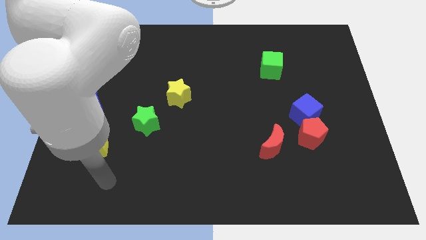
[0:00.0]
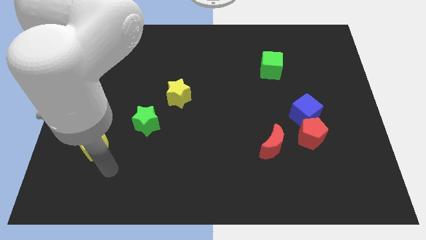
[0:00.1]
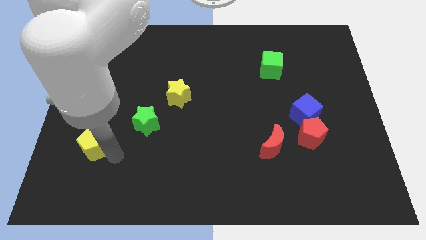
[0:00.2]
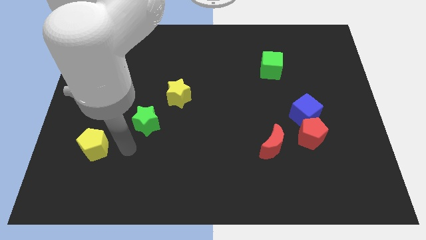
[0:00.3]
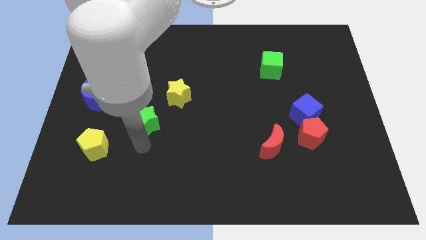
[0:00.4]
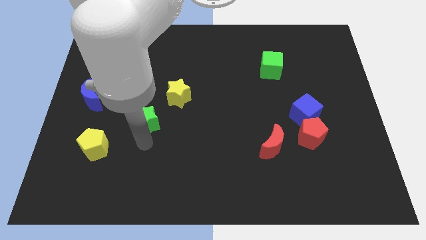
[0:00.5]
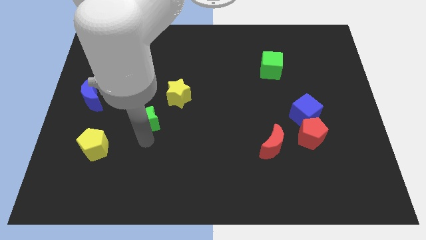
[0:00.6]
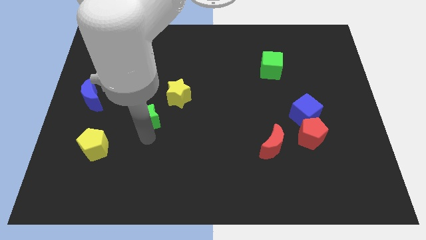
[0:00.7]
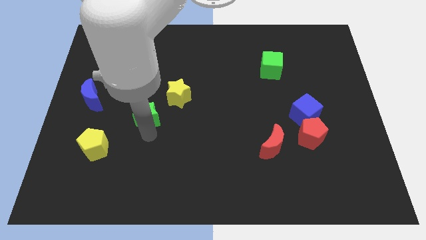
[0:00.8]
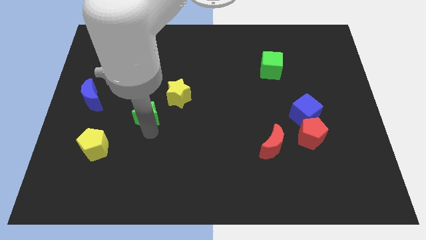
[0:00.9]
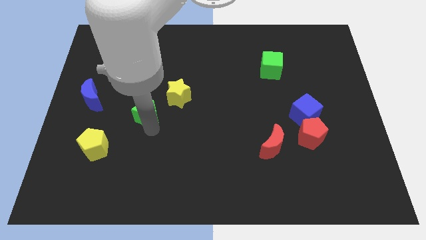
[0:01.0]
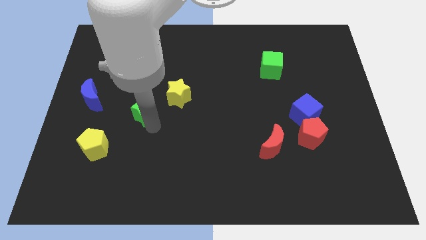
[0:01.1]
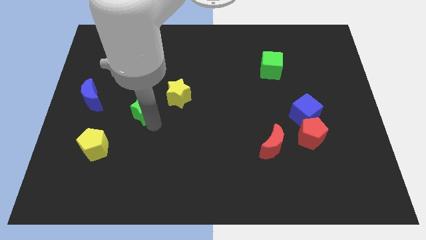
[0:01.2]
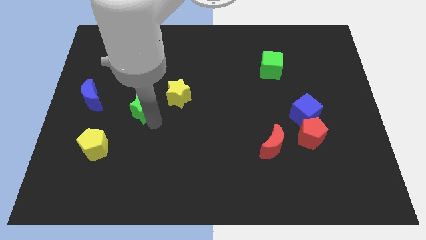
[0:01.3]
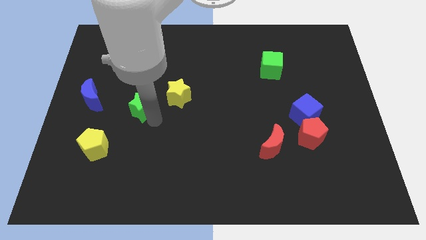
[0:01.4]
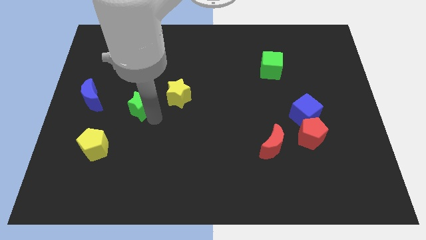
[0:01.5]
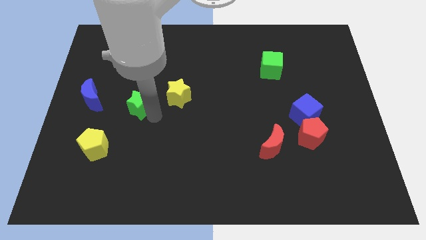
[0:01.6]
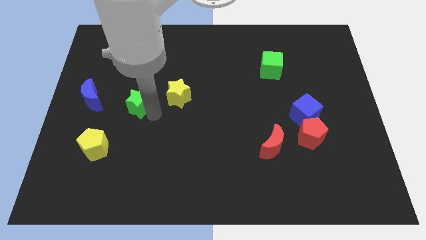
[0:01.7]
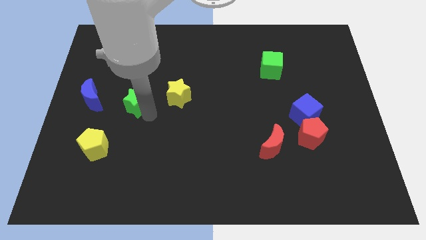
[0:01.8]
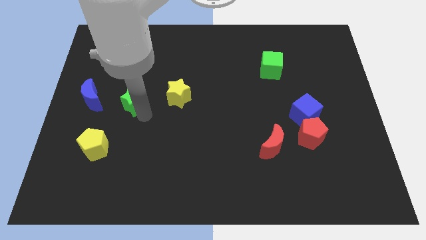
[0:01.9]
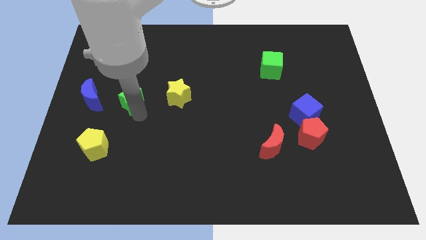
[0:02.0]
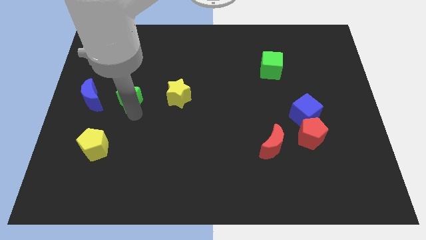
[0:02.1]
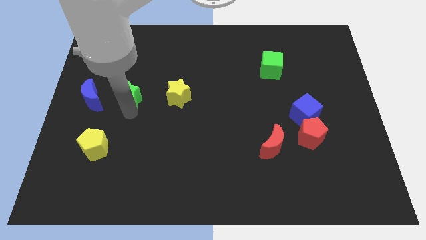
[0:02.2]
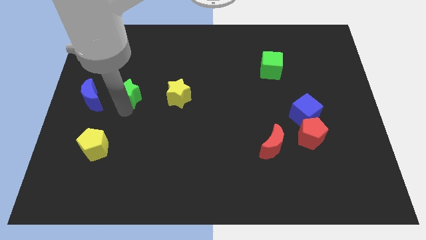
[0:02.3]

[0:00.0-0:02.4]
move the green star slightly up

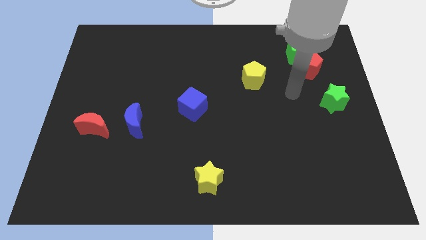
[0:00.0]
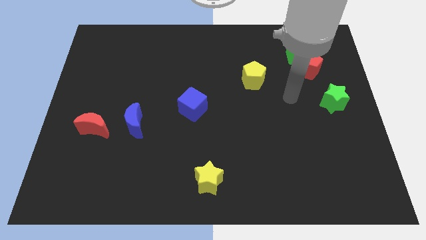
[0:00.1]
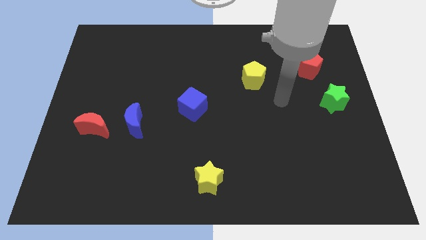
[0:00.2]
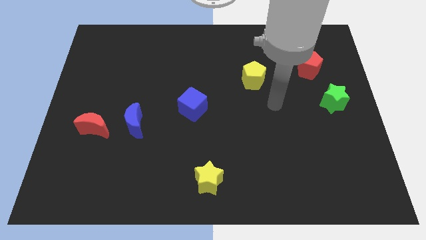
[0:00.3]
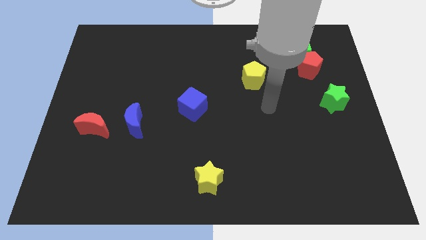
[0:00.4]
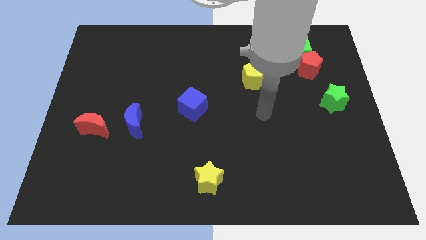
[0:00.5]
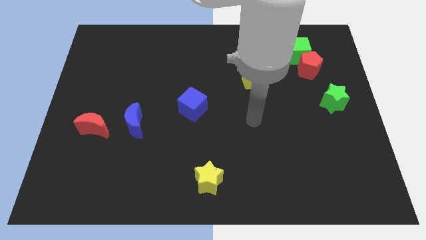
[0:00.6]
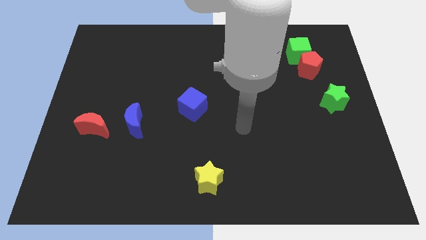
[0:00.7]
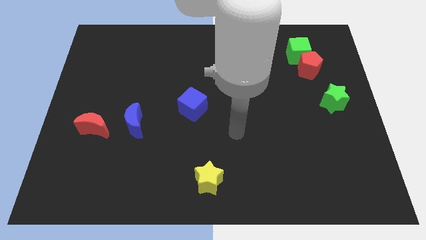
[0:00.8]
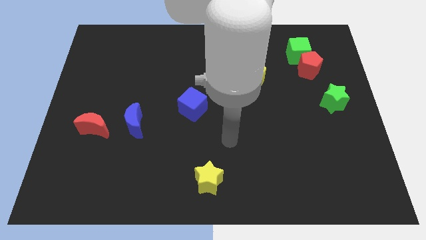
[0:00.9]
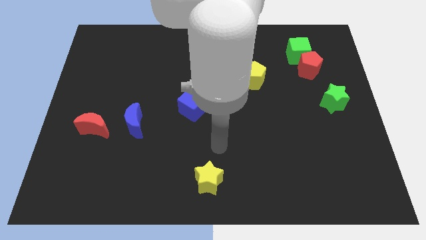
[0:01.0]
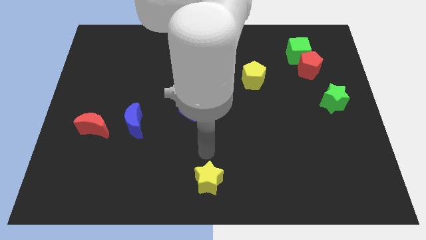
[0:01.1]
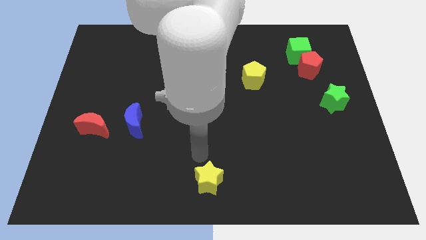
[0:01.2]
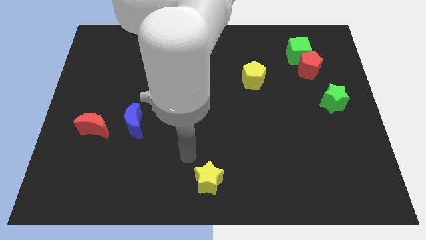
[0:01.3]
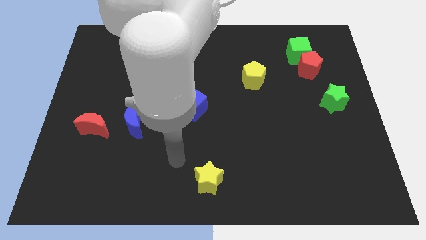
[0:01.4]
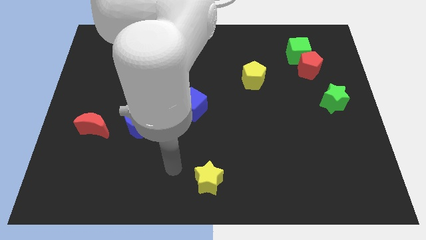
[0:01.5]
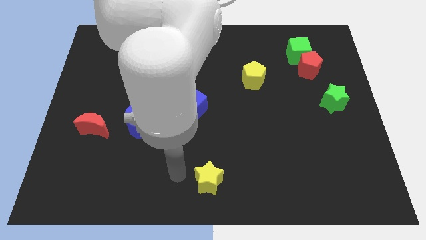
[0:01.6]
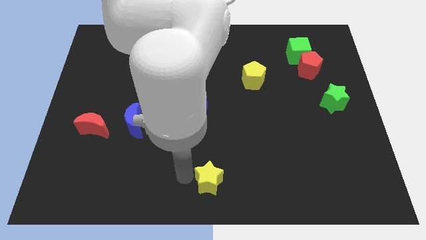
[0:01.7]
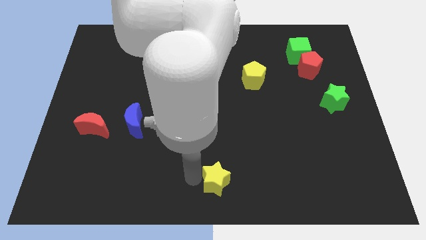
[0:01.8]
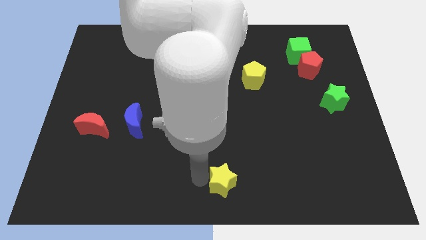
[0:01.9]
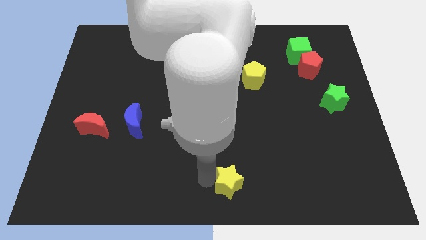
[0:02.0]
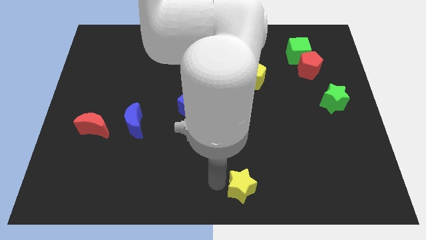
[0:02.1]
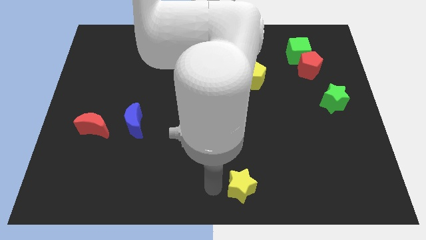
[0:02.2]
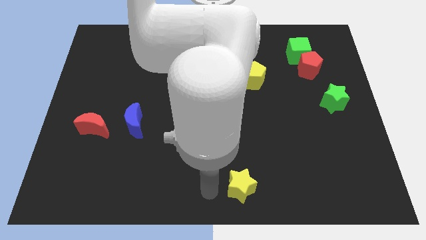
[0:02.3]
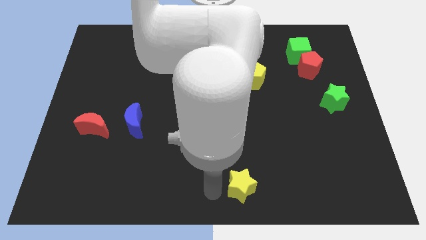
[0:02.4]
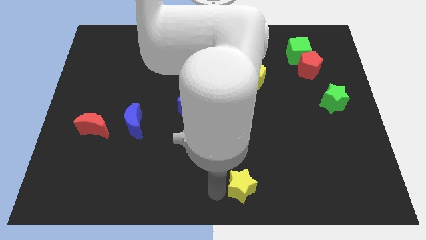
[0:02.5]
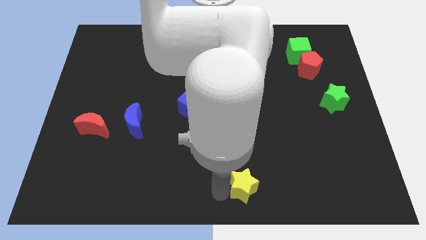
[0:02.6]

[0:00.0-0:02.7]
move the yellow star right somewhat

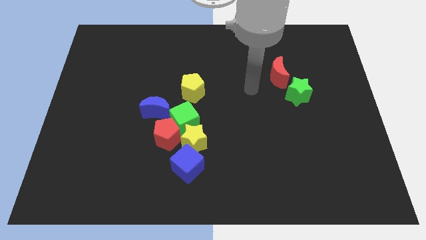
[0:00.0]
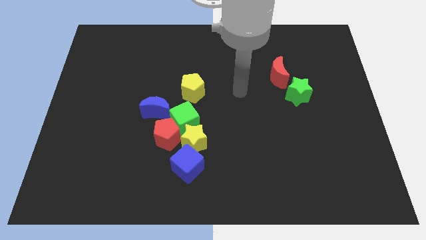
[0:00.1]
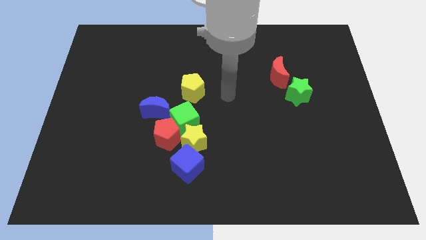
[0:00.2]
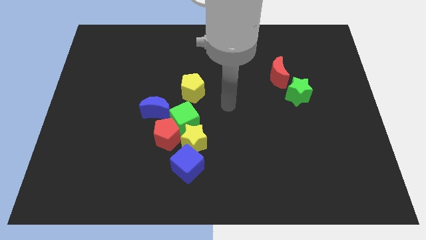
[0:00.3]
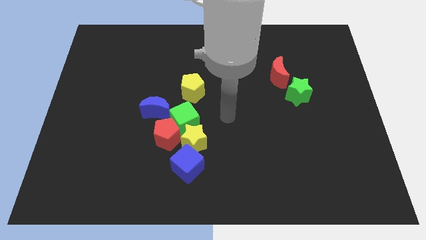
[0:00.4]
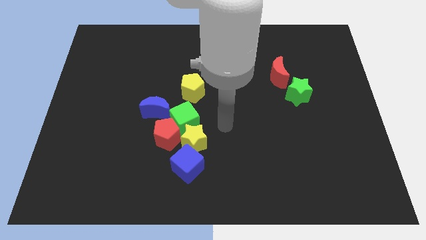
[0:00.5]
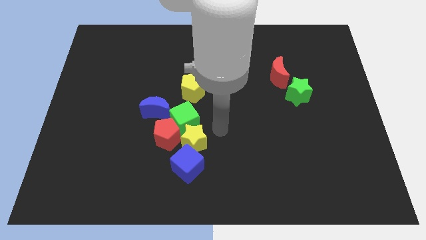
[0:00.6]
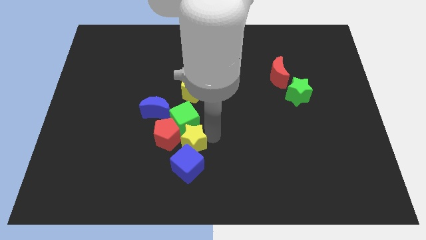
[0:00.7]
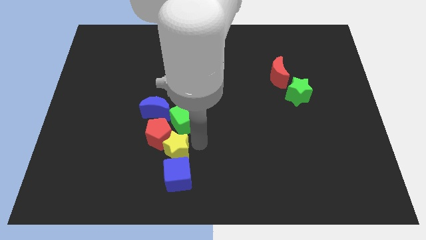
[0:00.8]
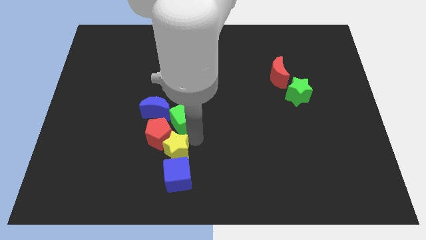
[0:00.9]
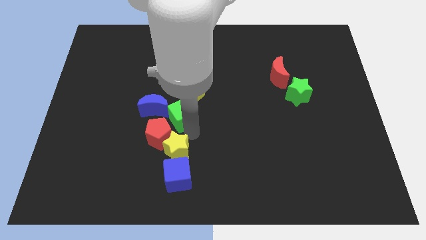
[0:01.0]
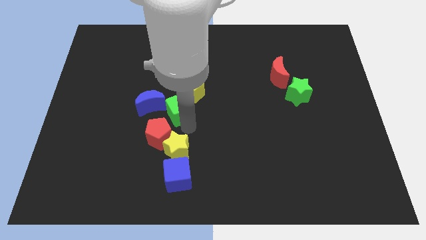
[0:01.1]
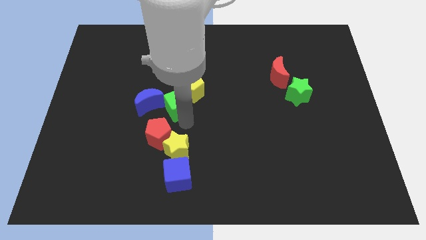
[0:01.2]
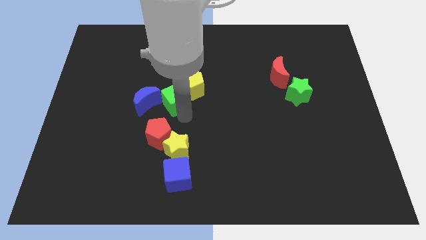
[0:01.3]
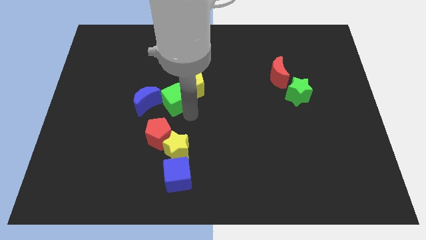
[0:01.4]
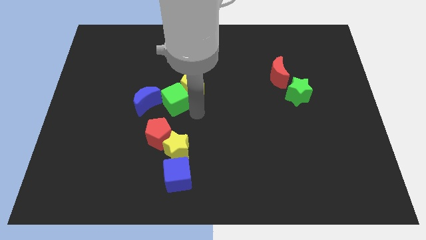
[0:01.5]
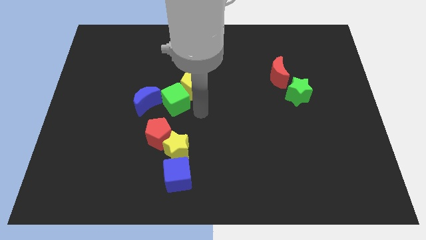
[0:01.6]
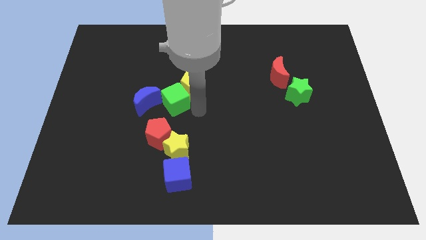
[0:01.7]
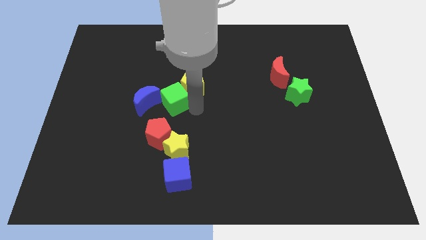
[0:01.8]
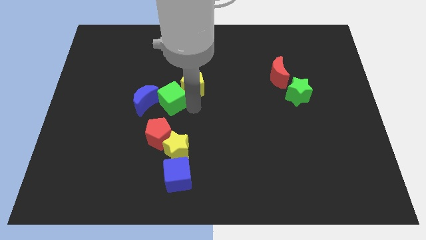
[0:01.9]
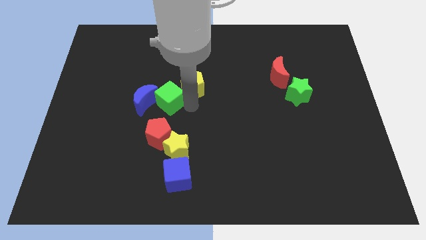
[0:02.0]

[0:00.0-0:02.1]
push the green cube up and to the left diagonally slightly

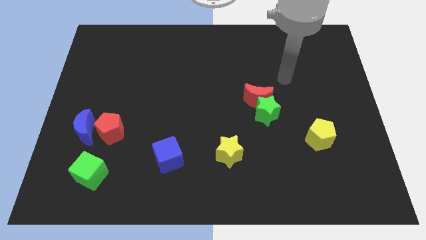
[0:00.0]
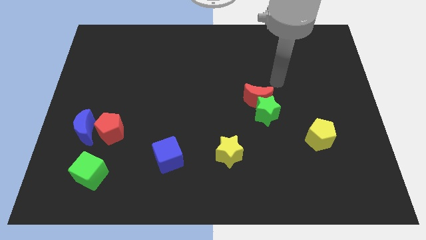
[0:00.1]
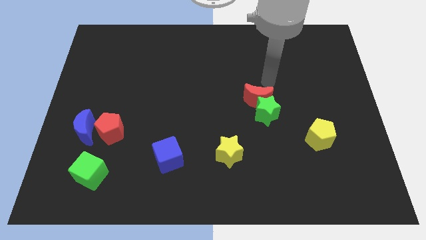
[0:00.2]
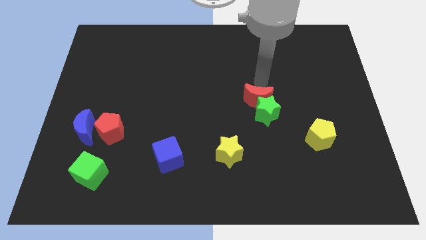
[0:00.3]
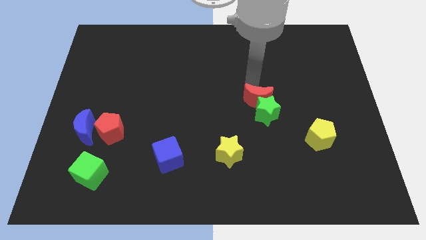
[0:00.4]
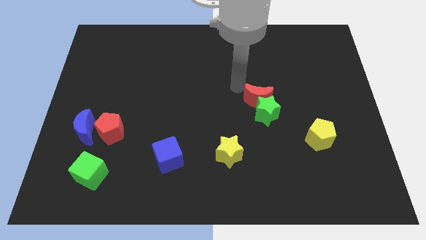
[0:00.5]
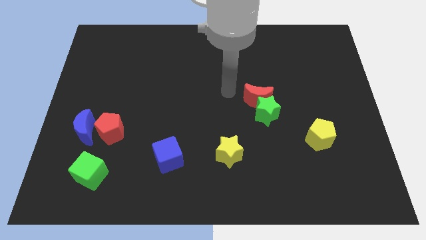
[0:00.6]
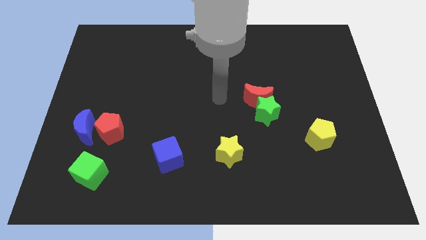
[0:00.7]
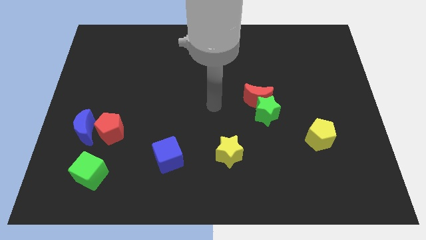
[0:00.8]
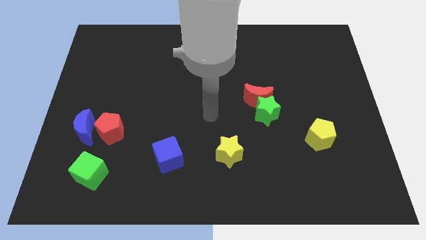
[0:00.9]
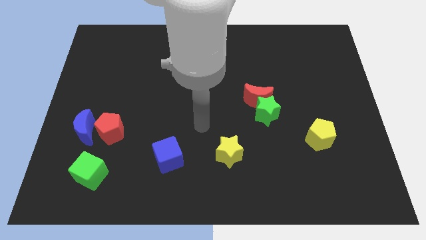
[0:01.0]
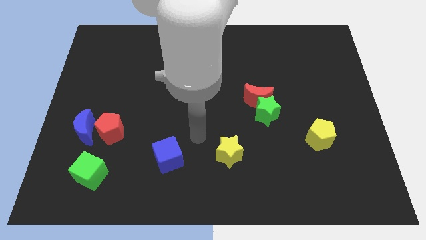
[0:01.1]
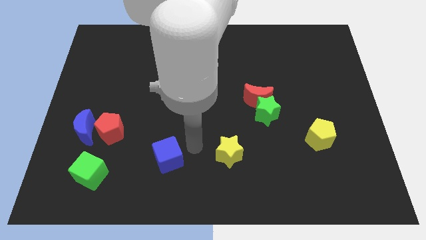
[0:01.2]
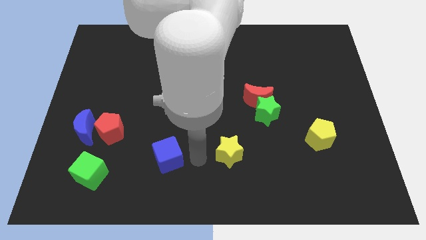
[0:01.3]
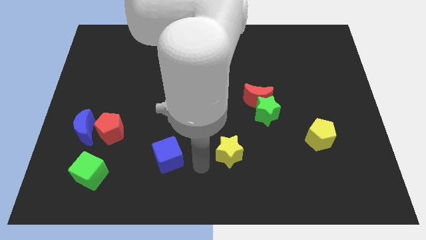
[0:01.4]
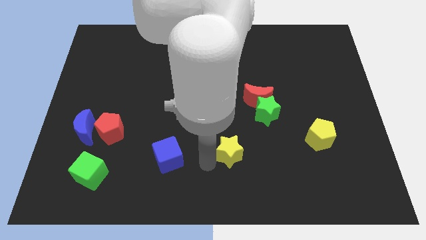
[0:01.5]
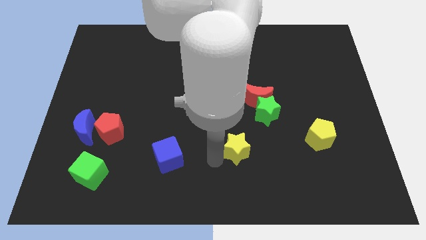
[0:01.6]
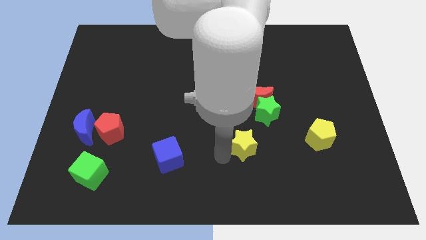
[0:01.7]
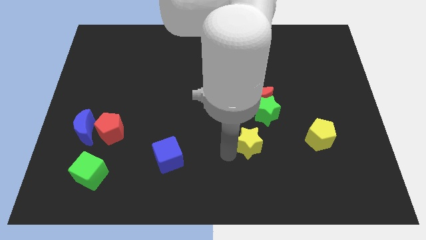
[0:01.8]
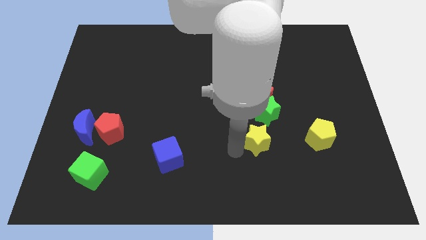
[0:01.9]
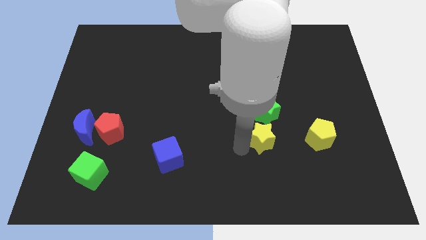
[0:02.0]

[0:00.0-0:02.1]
slide the yellow star up and then to the right a little bit
